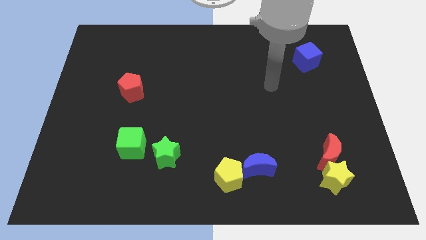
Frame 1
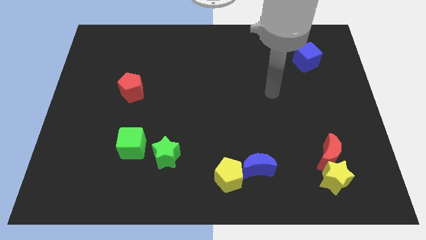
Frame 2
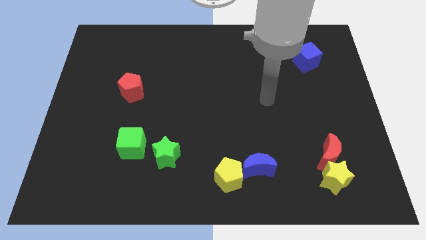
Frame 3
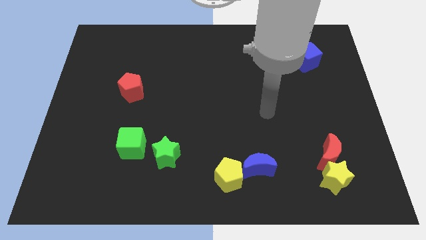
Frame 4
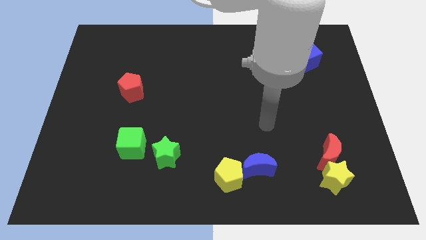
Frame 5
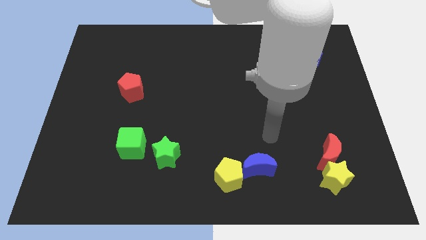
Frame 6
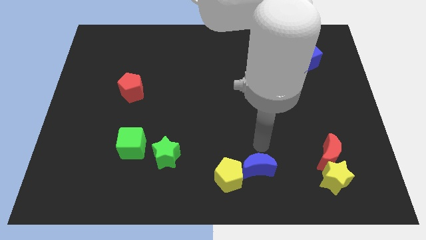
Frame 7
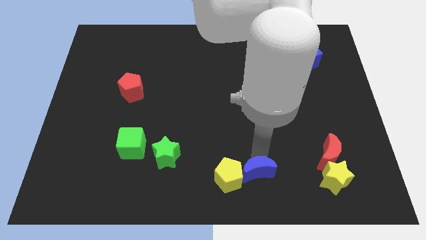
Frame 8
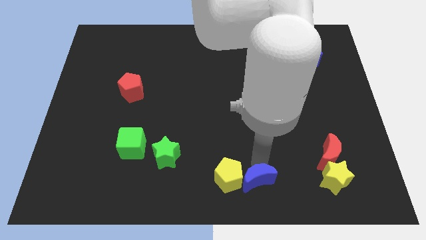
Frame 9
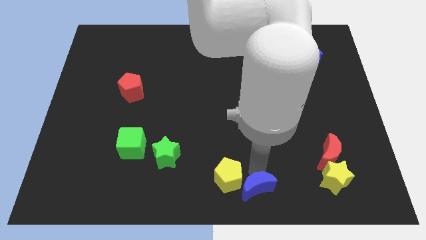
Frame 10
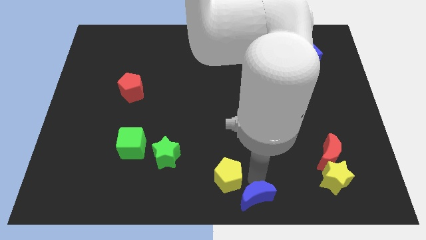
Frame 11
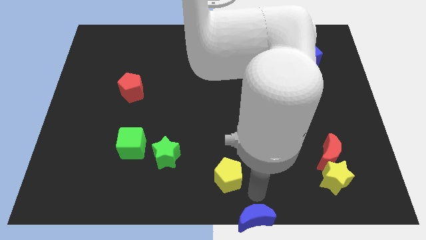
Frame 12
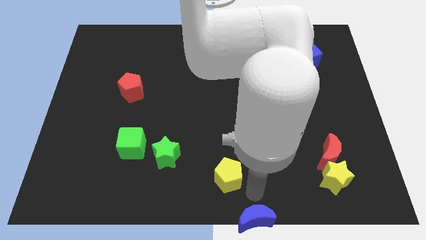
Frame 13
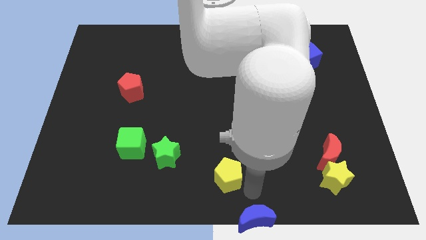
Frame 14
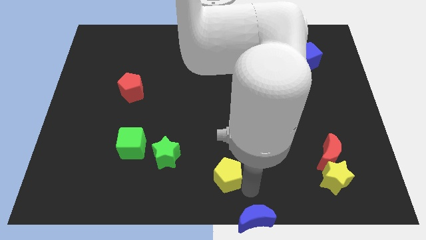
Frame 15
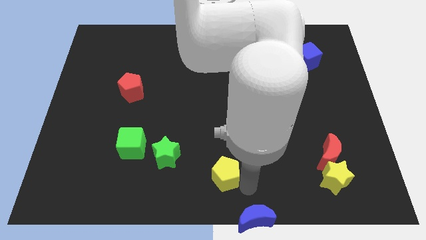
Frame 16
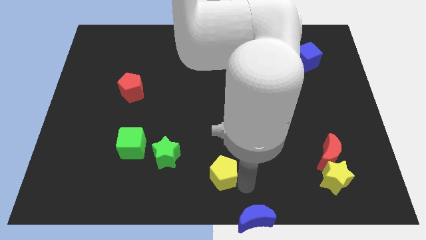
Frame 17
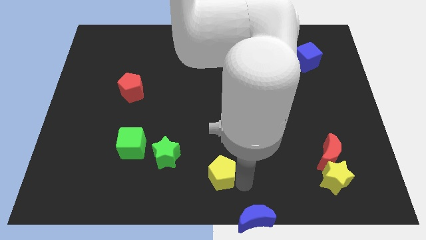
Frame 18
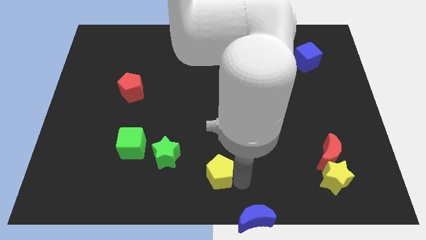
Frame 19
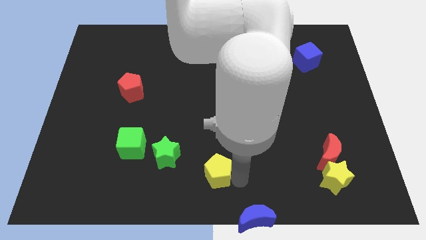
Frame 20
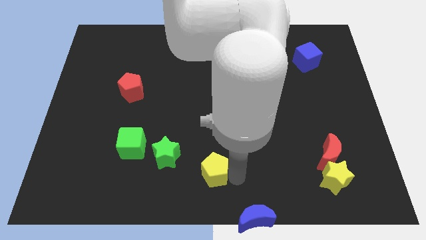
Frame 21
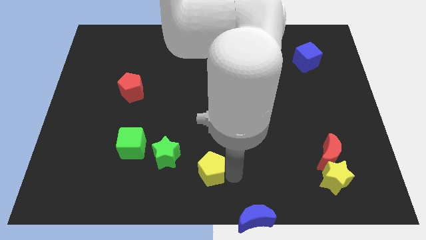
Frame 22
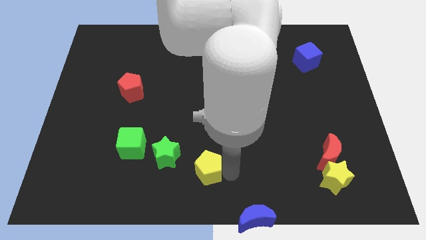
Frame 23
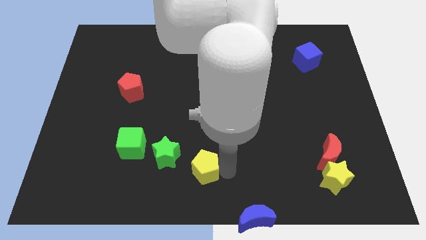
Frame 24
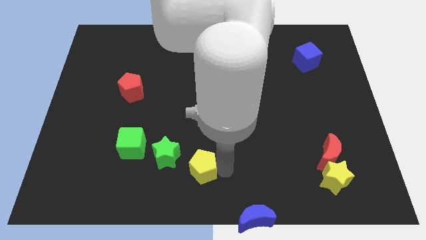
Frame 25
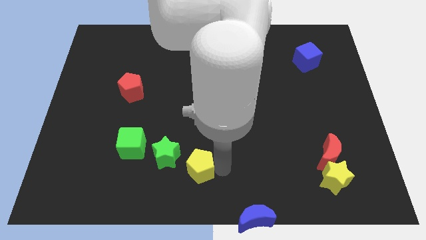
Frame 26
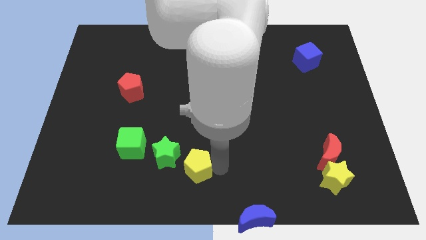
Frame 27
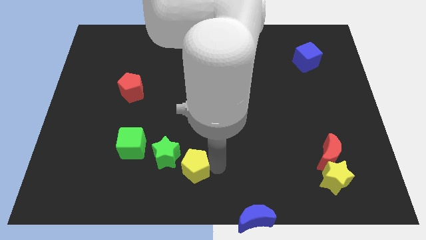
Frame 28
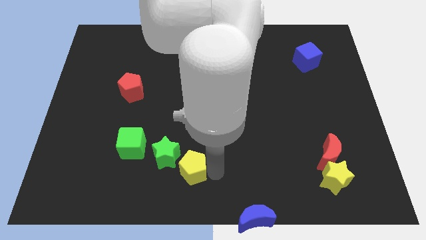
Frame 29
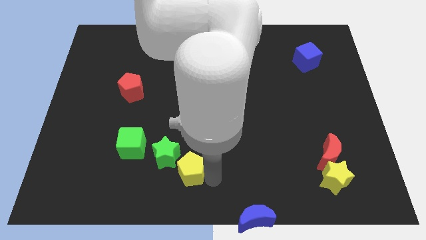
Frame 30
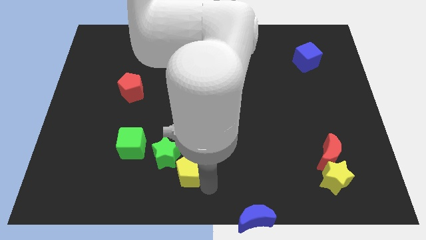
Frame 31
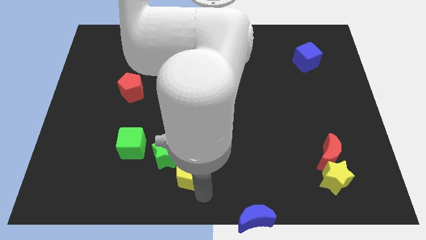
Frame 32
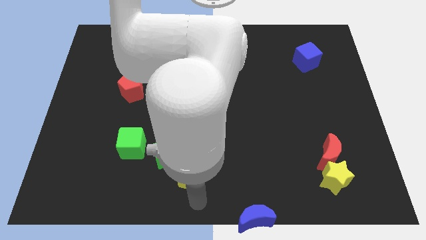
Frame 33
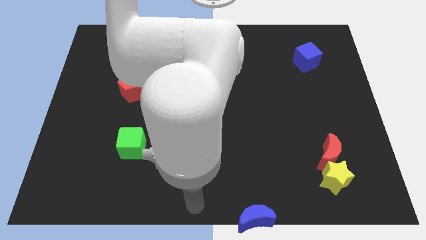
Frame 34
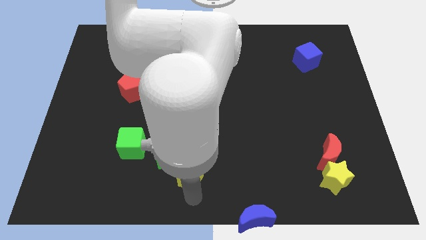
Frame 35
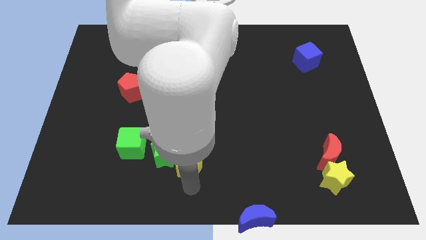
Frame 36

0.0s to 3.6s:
move the yellow pentagon a bit upwards and then to the left

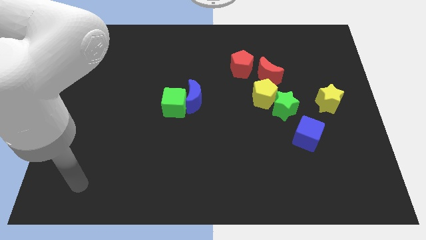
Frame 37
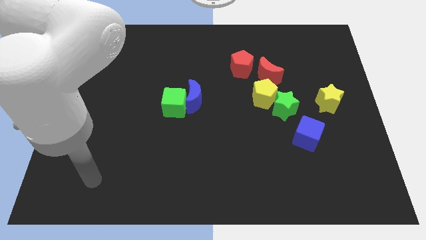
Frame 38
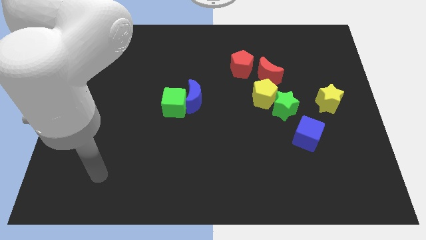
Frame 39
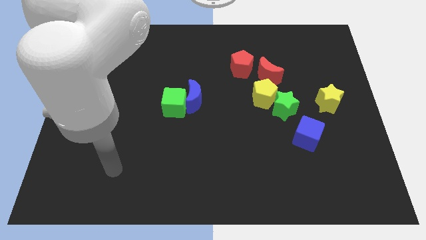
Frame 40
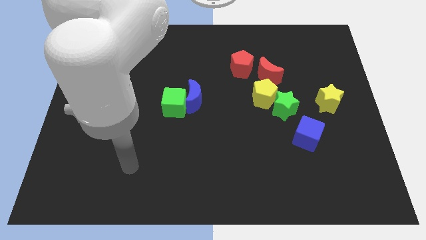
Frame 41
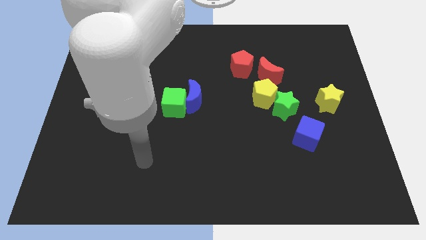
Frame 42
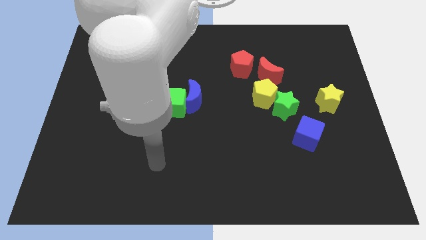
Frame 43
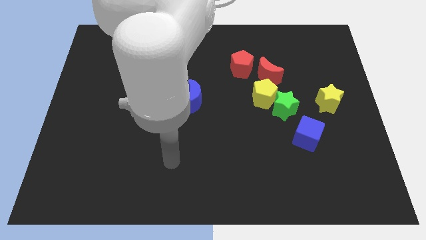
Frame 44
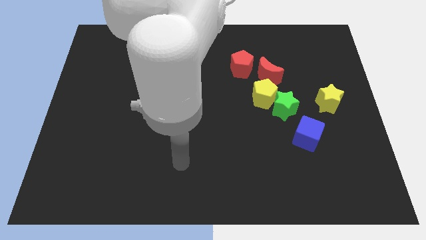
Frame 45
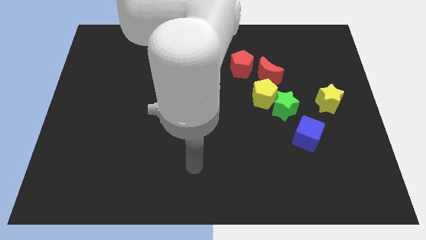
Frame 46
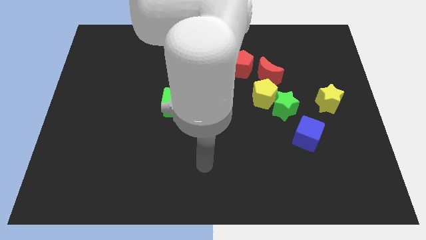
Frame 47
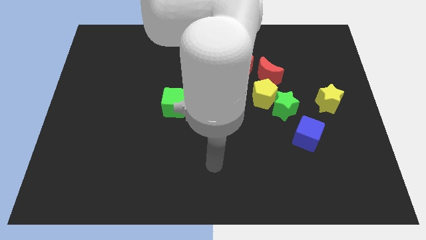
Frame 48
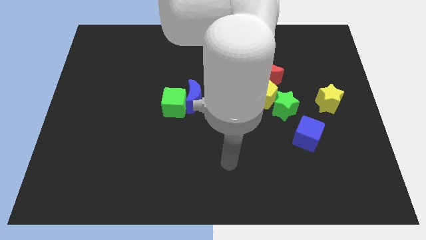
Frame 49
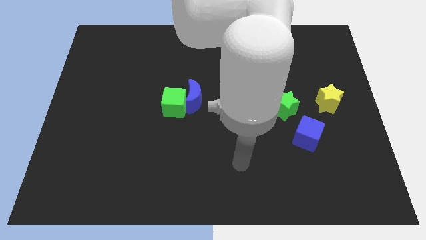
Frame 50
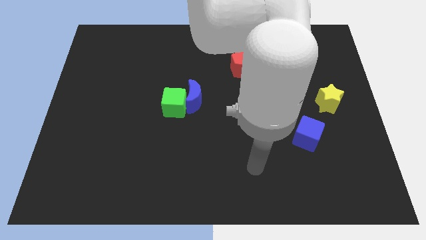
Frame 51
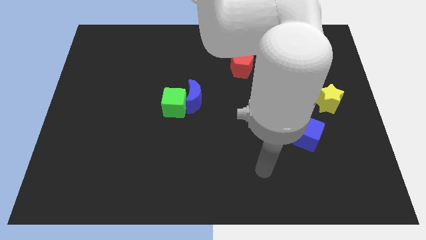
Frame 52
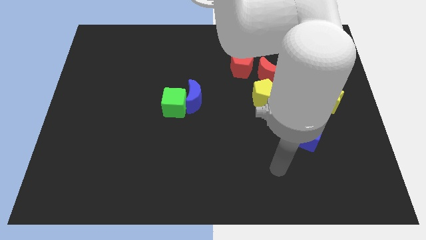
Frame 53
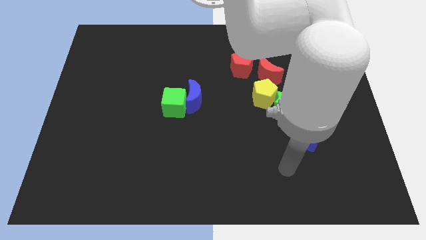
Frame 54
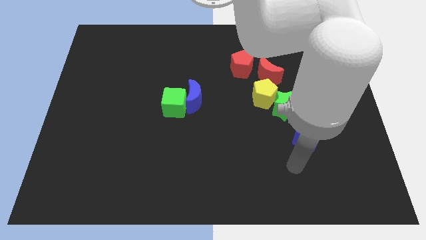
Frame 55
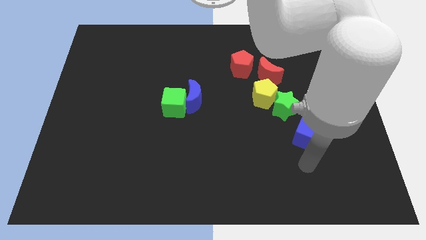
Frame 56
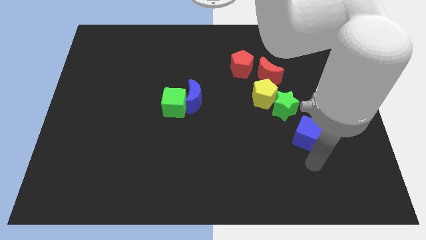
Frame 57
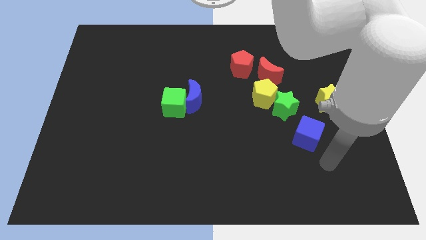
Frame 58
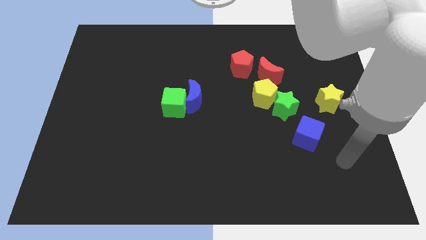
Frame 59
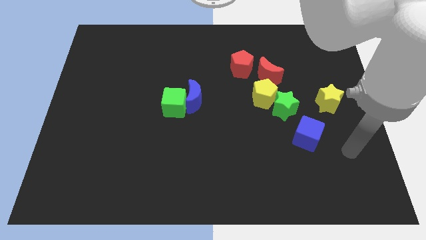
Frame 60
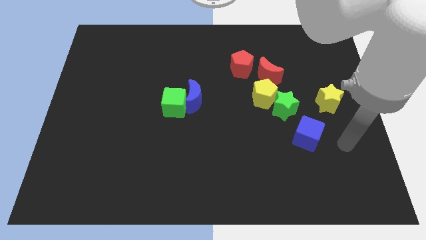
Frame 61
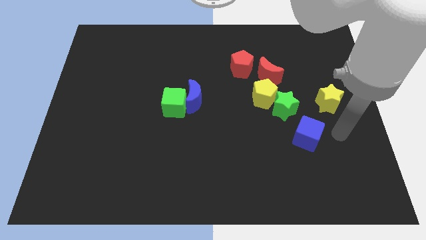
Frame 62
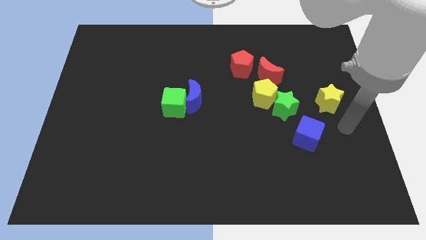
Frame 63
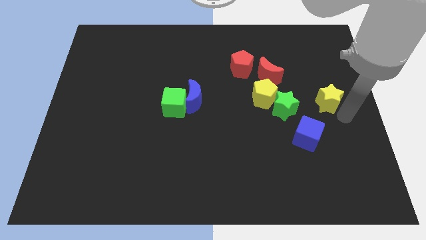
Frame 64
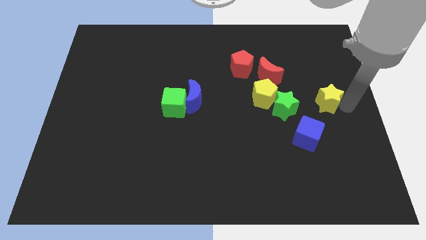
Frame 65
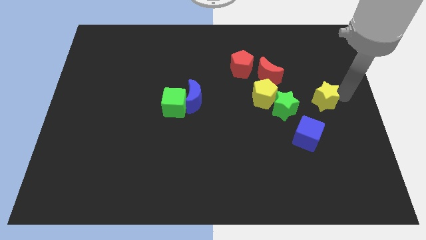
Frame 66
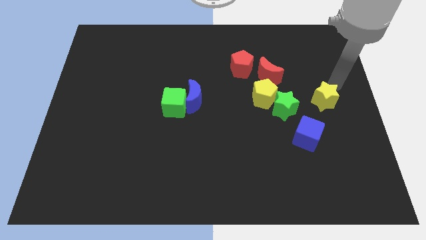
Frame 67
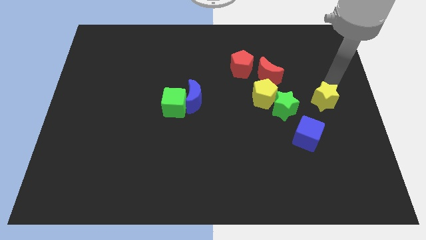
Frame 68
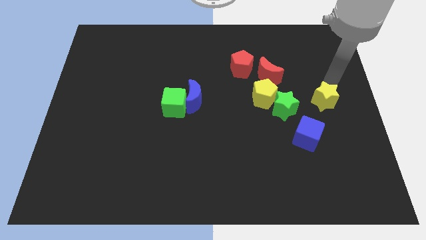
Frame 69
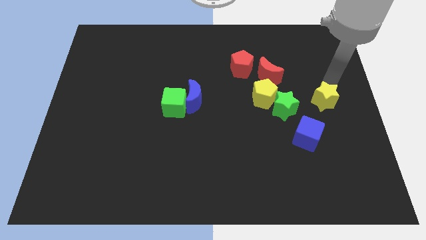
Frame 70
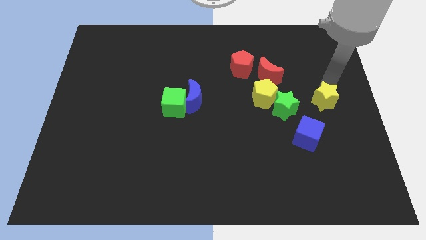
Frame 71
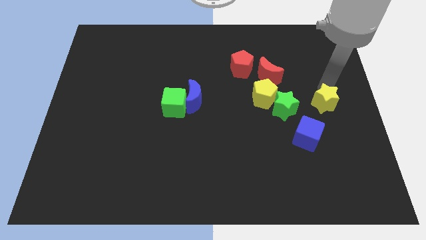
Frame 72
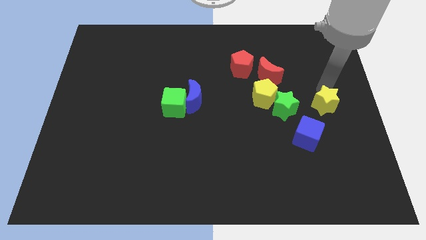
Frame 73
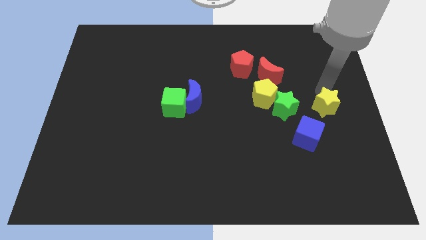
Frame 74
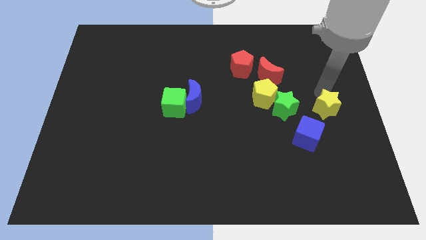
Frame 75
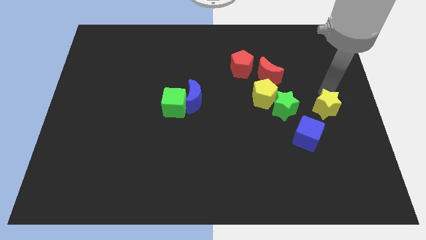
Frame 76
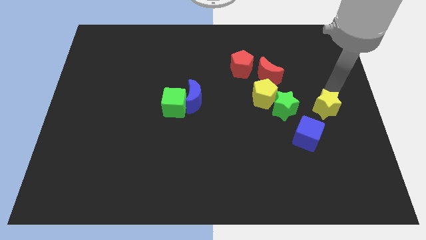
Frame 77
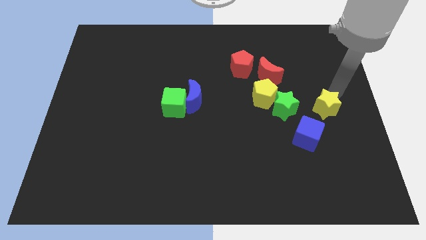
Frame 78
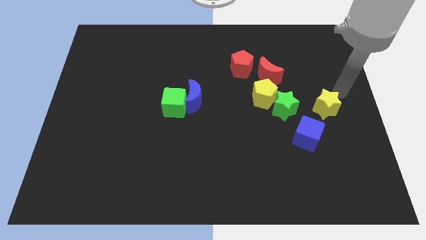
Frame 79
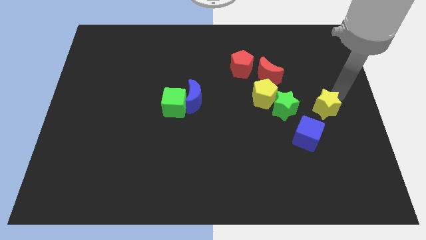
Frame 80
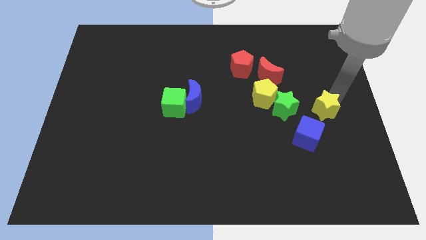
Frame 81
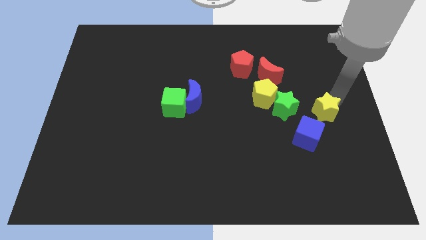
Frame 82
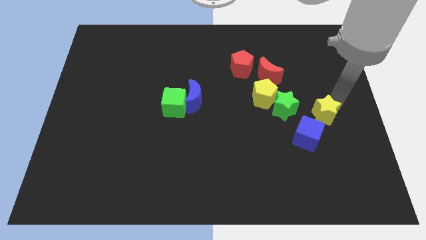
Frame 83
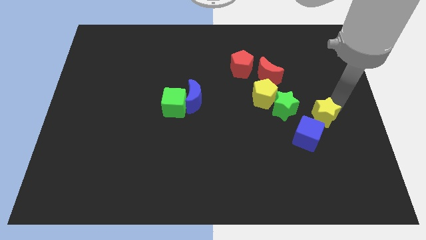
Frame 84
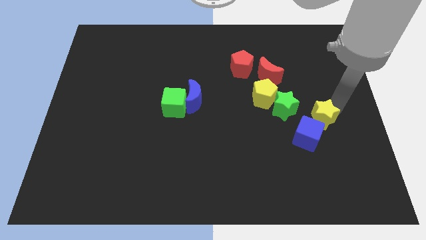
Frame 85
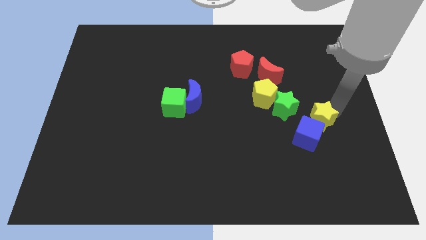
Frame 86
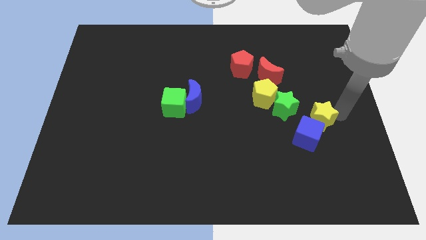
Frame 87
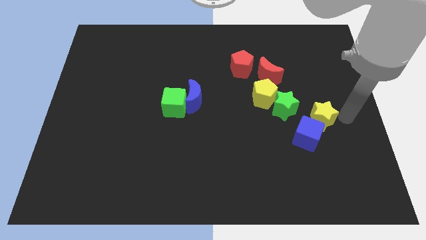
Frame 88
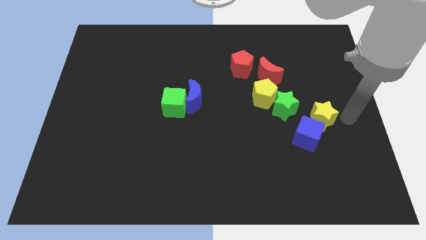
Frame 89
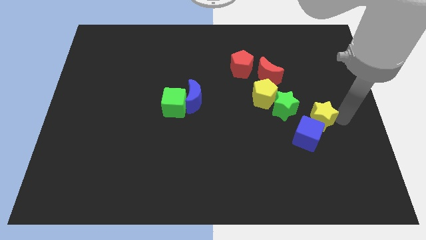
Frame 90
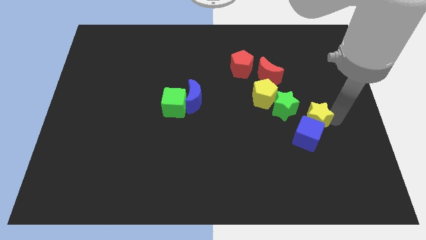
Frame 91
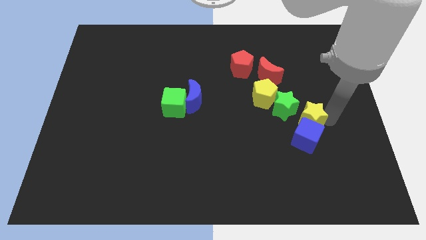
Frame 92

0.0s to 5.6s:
push the yellow star slightly downwards and to the left
